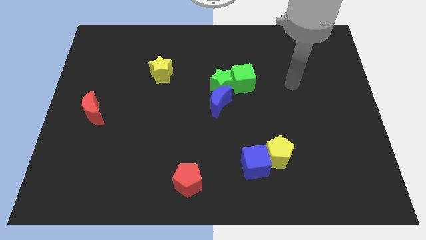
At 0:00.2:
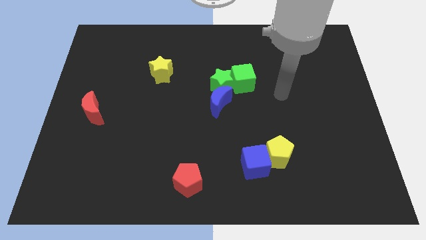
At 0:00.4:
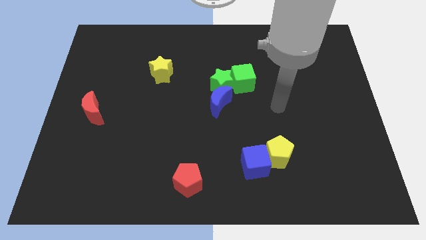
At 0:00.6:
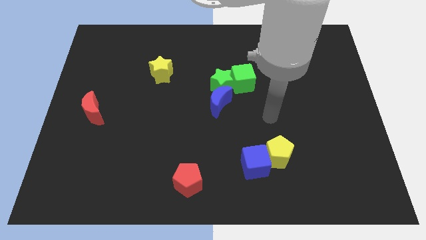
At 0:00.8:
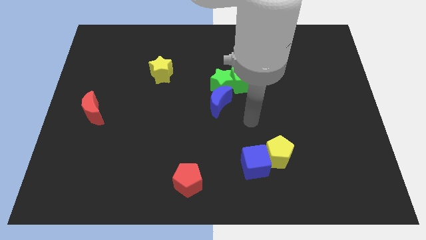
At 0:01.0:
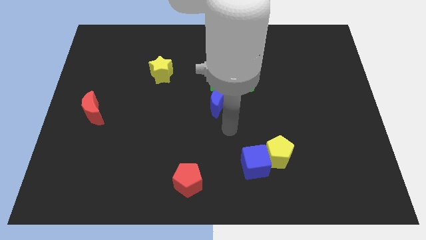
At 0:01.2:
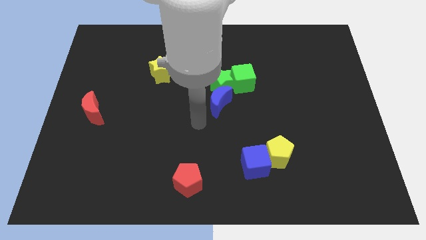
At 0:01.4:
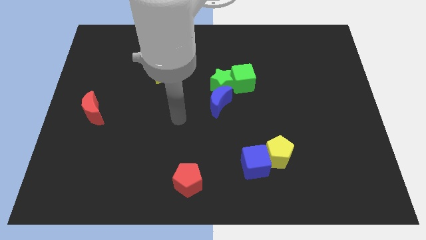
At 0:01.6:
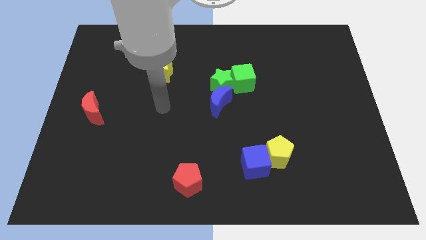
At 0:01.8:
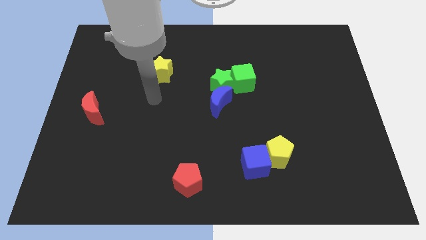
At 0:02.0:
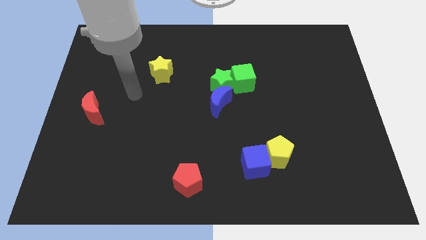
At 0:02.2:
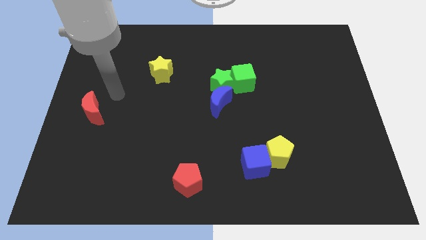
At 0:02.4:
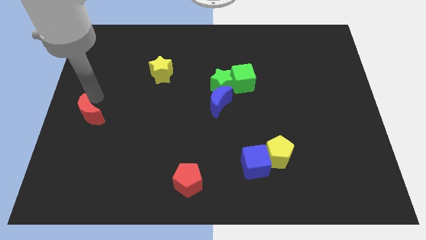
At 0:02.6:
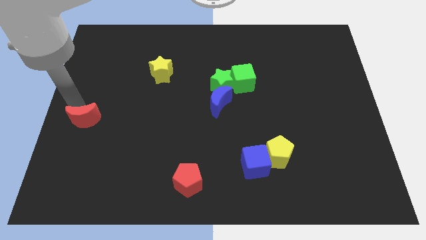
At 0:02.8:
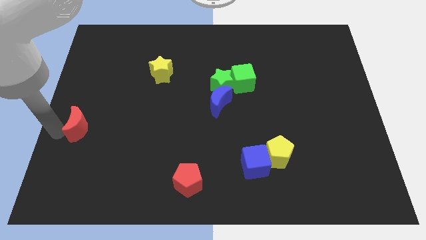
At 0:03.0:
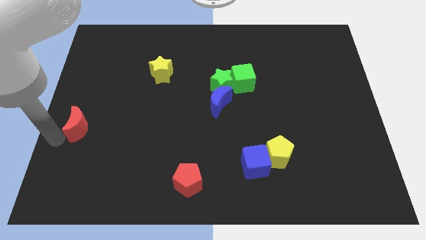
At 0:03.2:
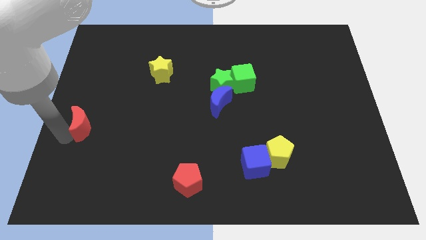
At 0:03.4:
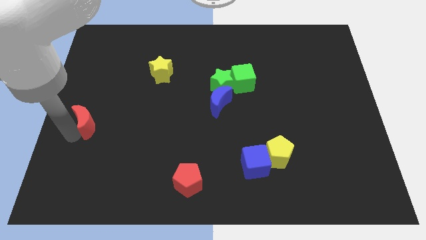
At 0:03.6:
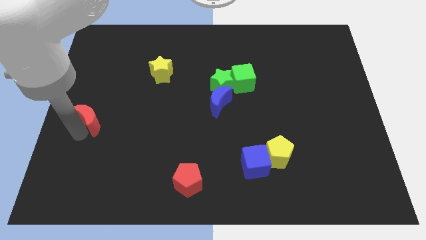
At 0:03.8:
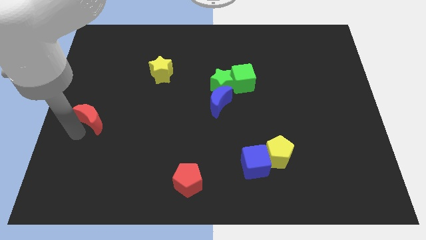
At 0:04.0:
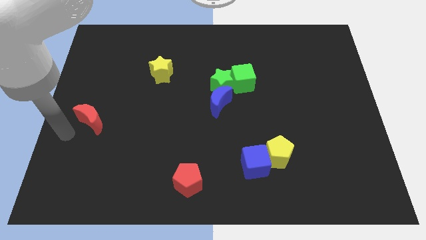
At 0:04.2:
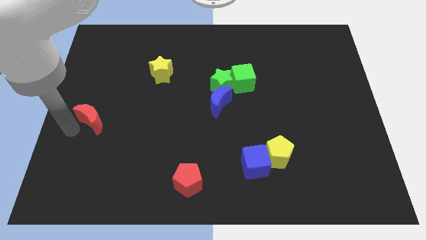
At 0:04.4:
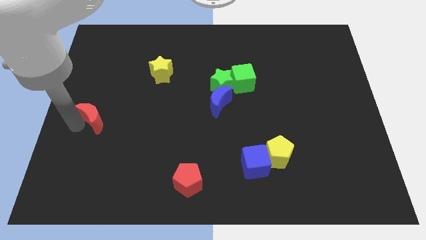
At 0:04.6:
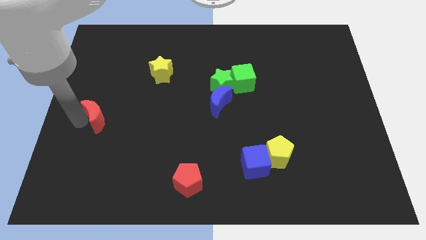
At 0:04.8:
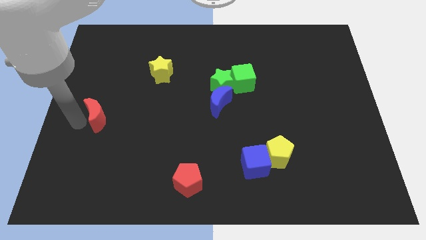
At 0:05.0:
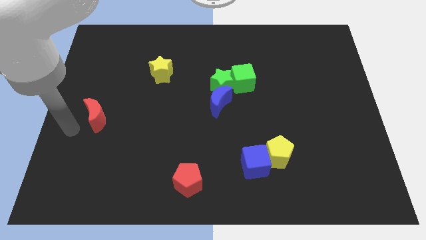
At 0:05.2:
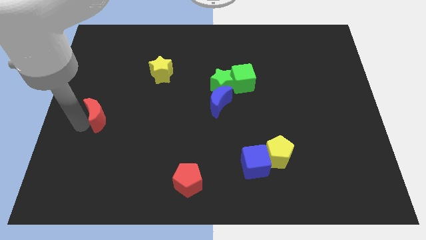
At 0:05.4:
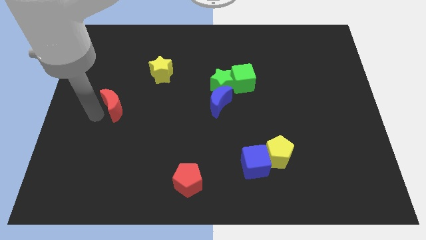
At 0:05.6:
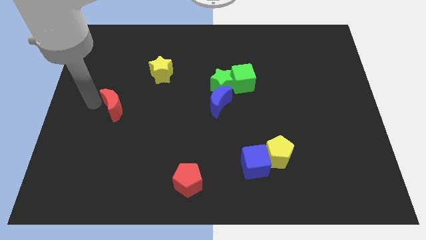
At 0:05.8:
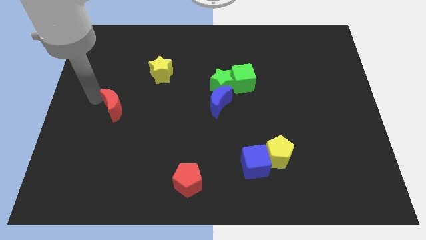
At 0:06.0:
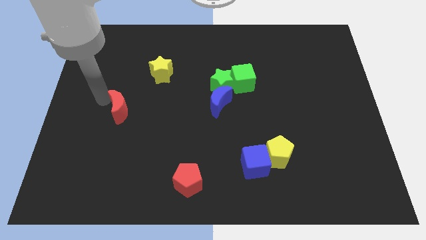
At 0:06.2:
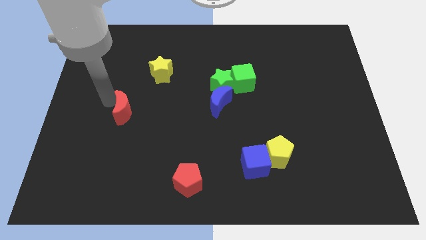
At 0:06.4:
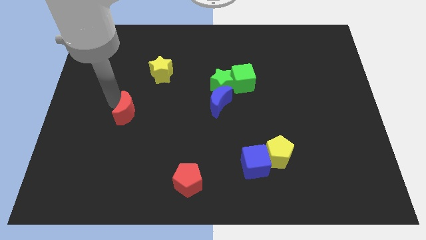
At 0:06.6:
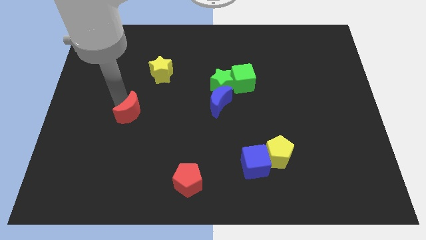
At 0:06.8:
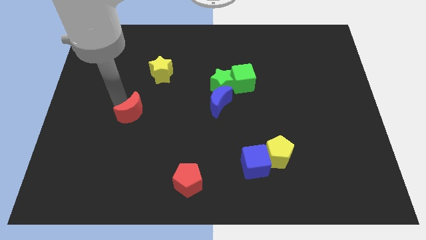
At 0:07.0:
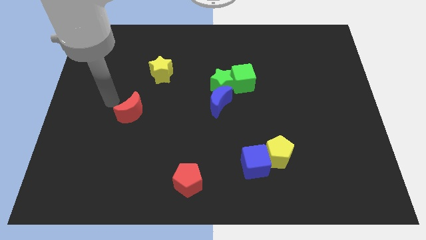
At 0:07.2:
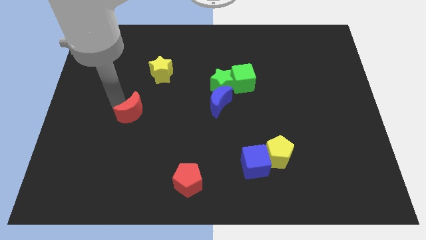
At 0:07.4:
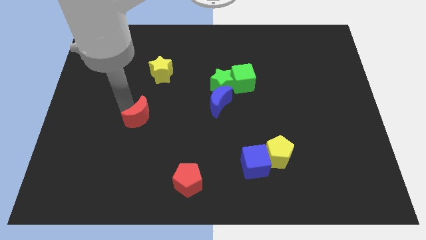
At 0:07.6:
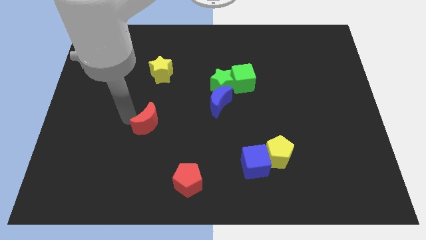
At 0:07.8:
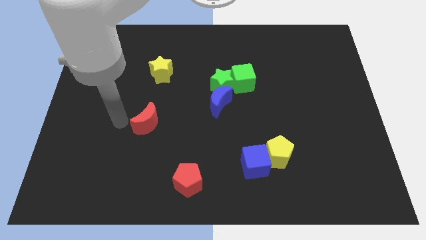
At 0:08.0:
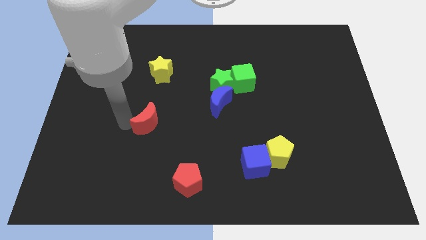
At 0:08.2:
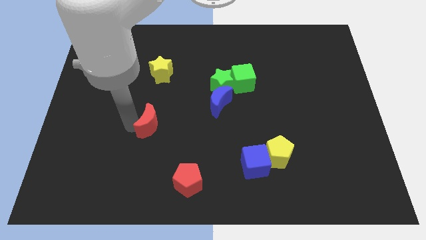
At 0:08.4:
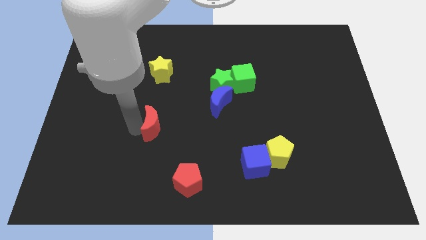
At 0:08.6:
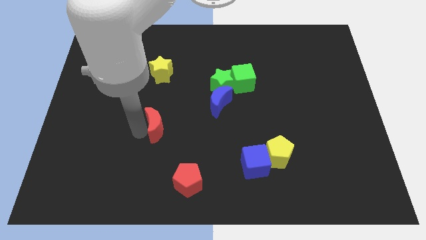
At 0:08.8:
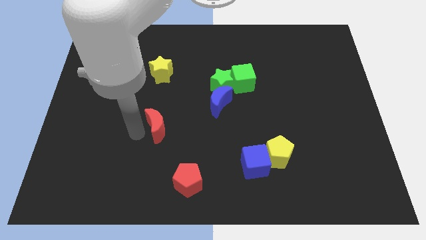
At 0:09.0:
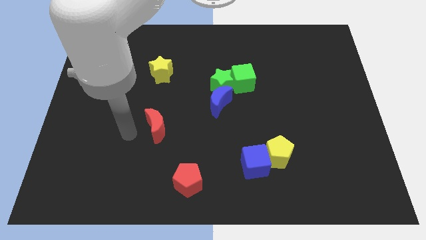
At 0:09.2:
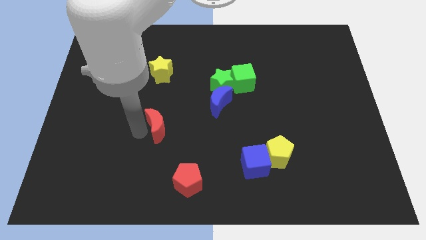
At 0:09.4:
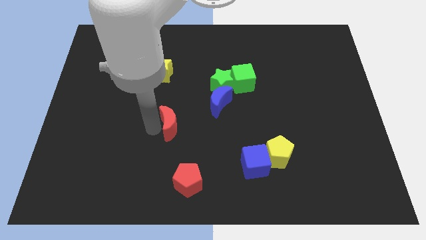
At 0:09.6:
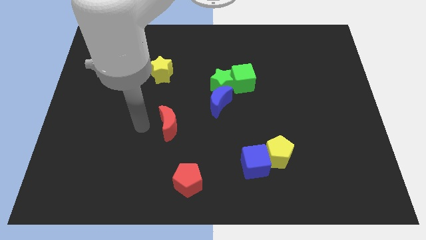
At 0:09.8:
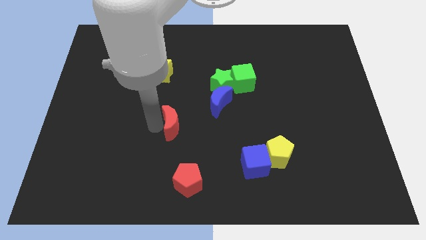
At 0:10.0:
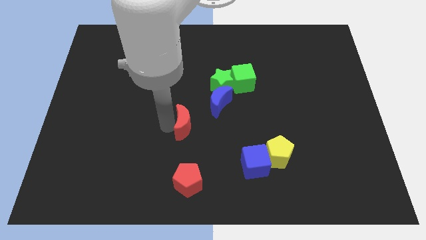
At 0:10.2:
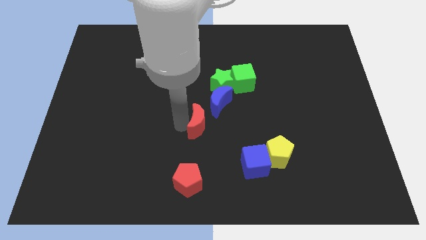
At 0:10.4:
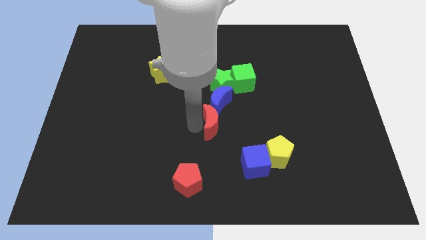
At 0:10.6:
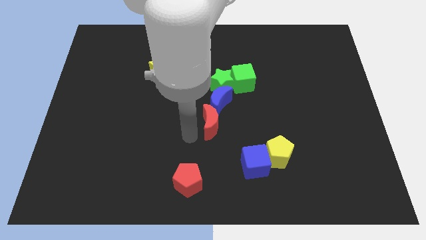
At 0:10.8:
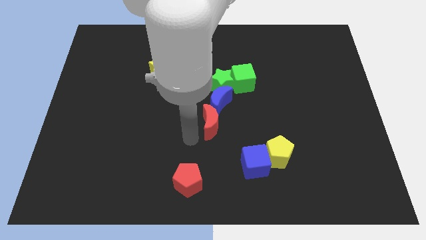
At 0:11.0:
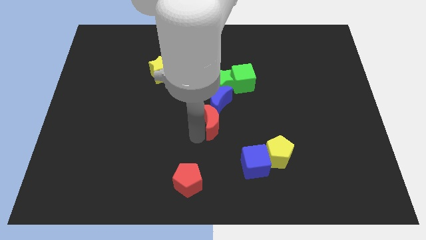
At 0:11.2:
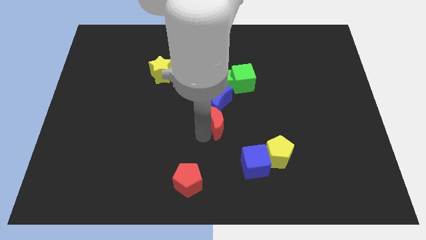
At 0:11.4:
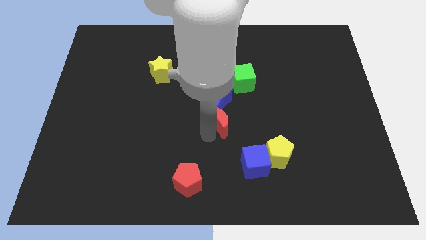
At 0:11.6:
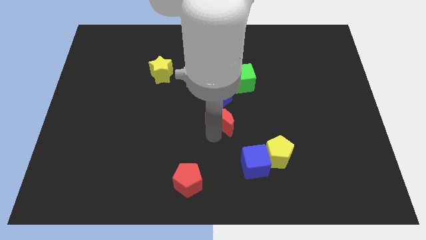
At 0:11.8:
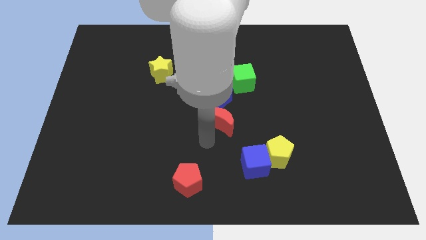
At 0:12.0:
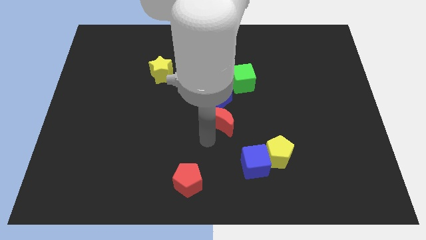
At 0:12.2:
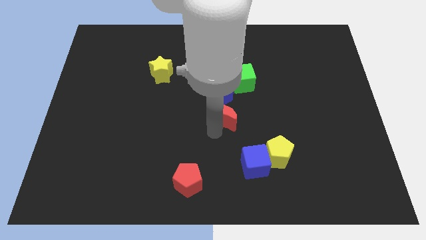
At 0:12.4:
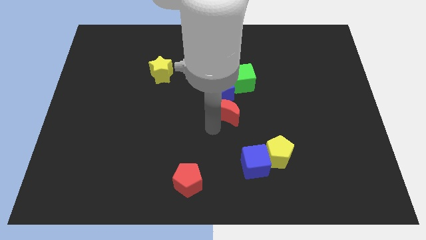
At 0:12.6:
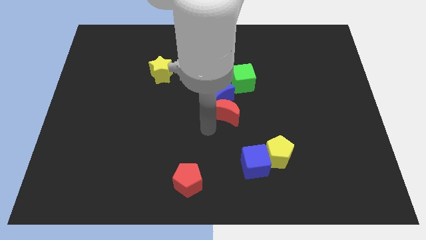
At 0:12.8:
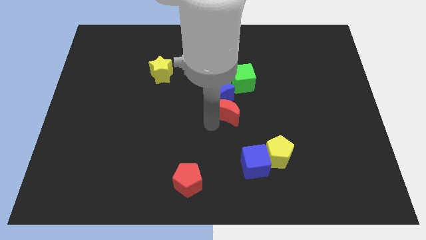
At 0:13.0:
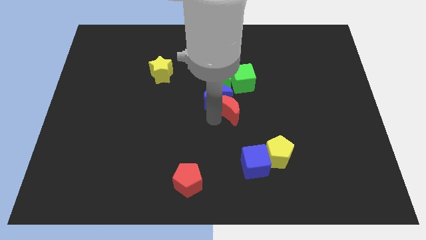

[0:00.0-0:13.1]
push the red moon to the bottom right of the green star

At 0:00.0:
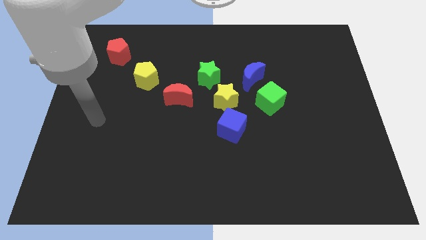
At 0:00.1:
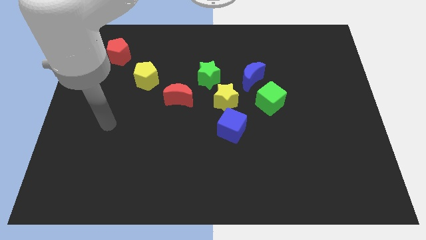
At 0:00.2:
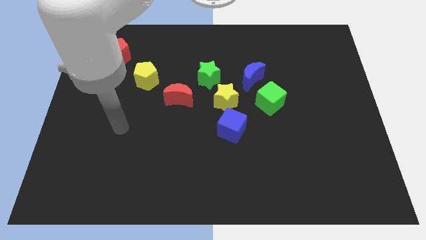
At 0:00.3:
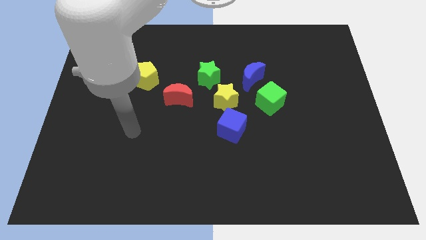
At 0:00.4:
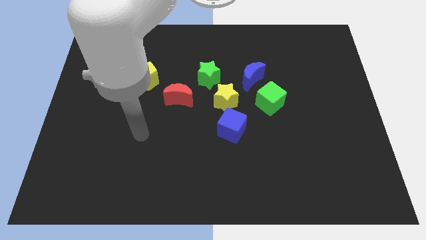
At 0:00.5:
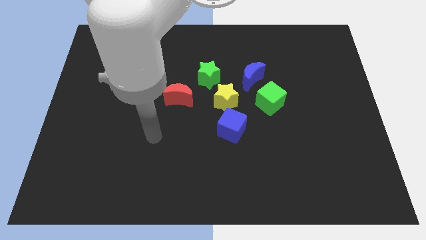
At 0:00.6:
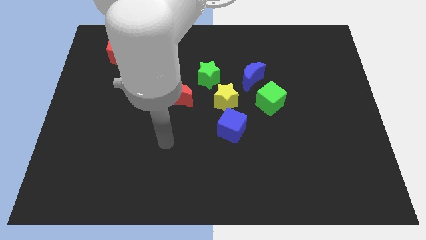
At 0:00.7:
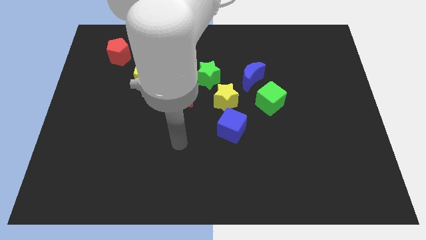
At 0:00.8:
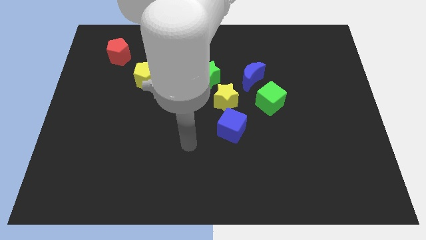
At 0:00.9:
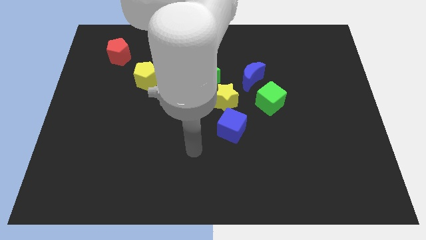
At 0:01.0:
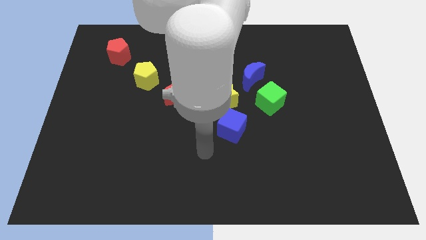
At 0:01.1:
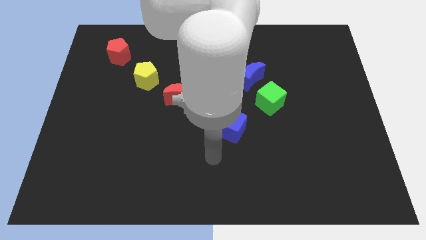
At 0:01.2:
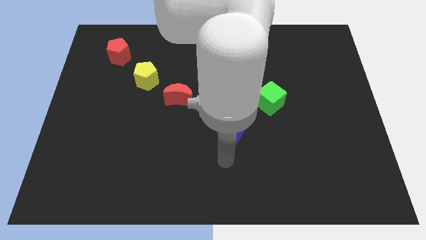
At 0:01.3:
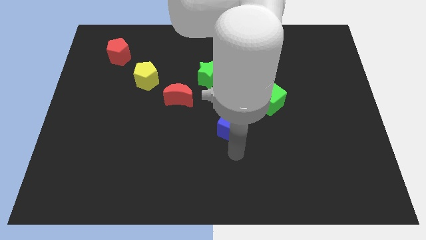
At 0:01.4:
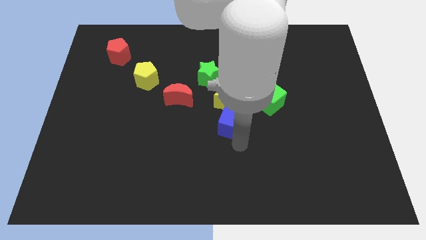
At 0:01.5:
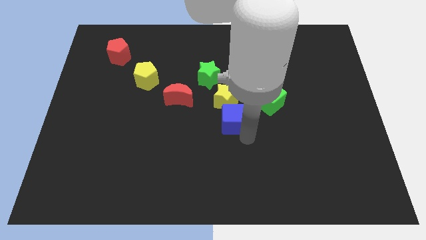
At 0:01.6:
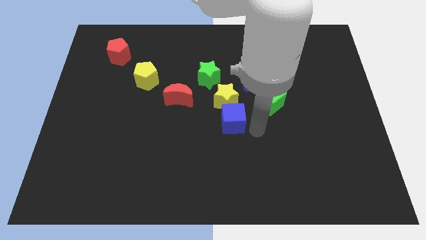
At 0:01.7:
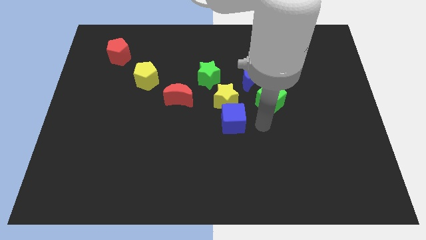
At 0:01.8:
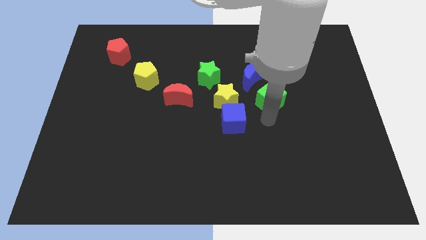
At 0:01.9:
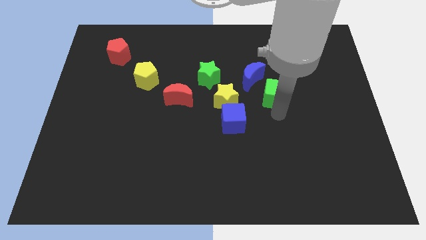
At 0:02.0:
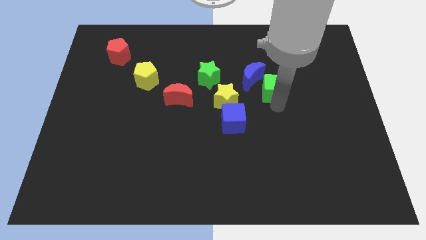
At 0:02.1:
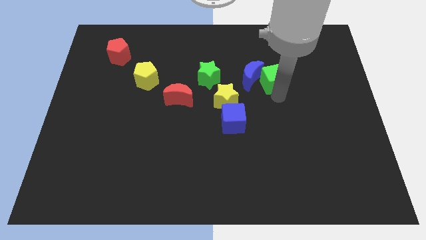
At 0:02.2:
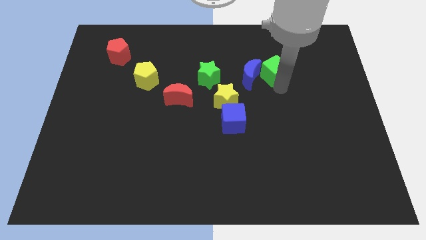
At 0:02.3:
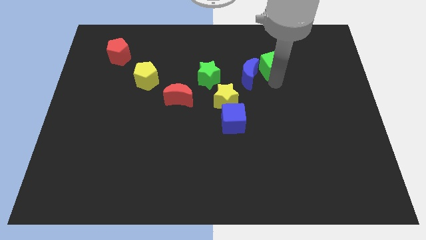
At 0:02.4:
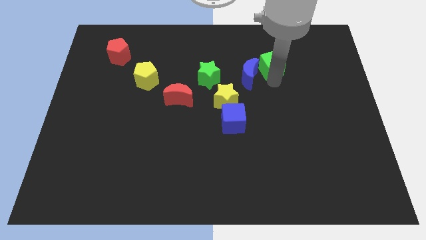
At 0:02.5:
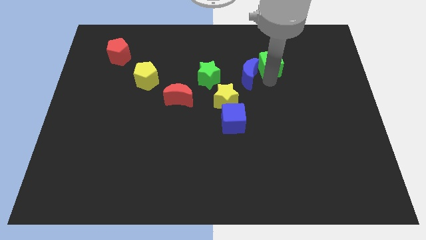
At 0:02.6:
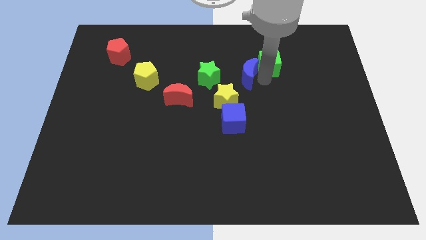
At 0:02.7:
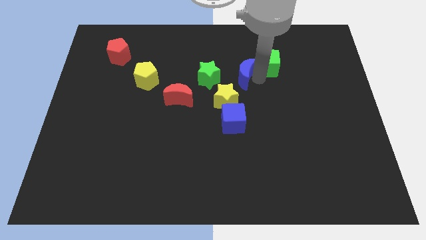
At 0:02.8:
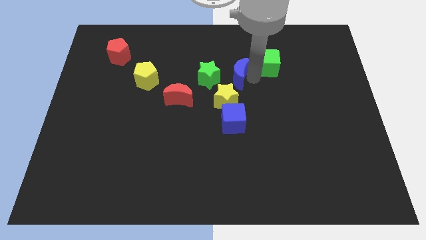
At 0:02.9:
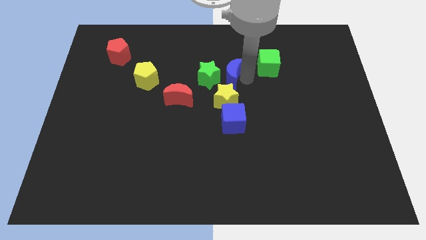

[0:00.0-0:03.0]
put the blue moon to the top right side of the green star
